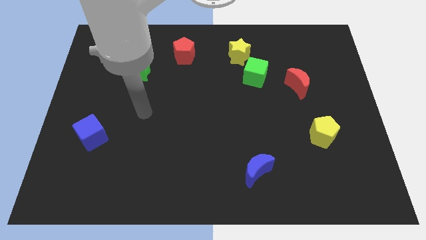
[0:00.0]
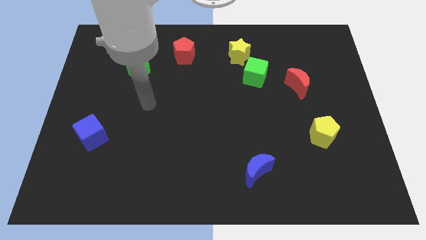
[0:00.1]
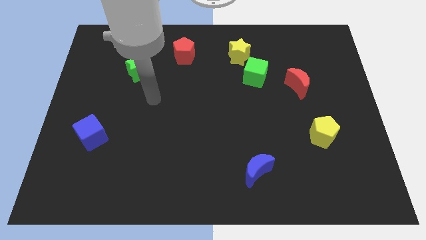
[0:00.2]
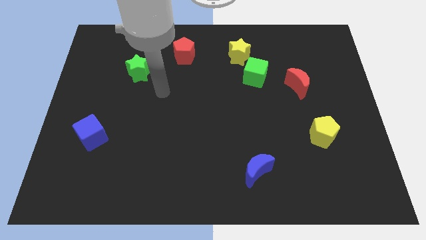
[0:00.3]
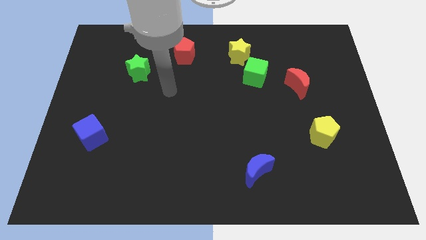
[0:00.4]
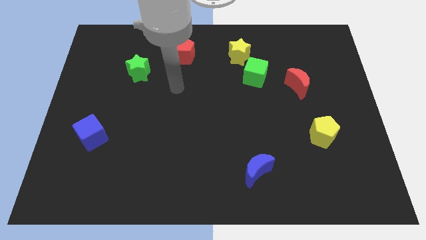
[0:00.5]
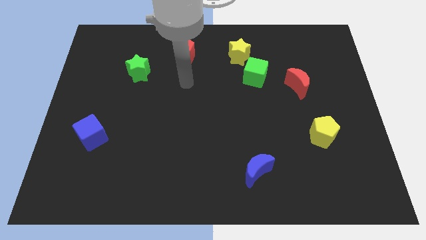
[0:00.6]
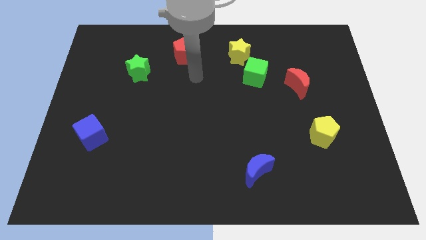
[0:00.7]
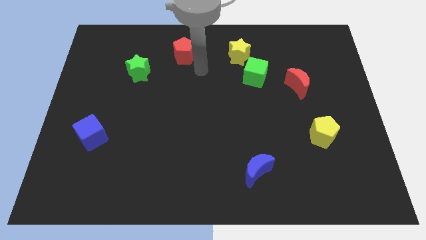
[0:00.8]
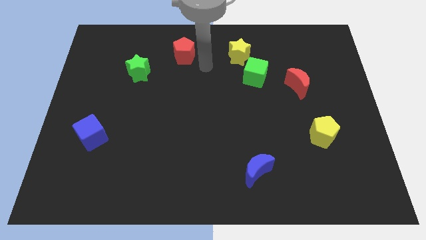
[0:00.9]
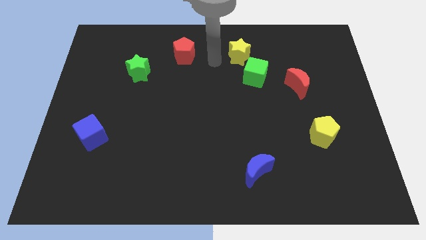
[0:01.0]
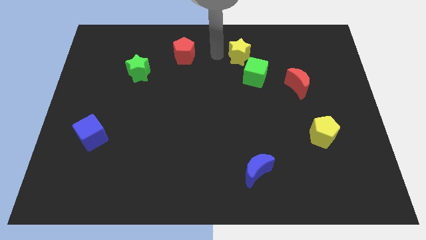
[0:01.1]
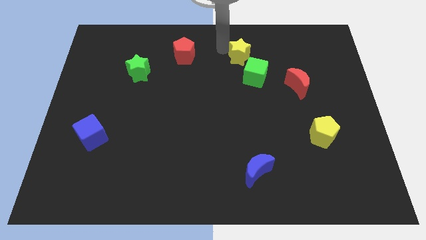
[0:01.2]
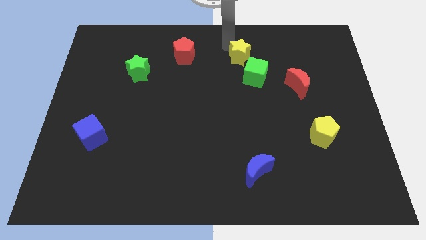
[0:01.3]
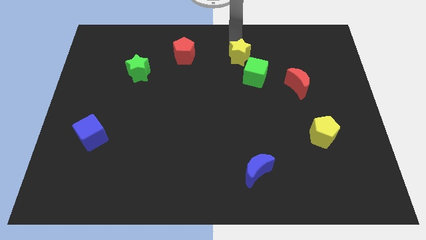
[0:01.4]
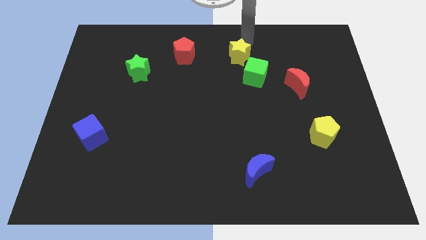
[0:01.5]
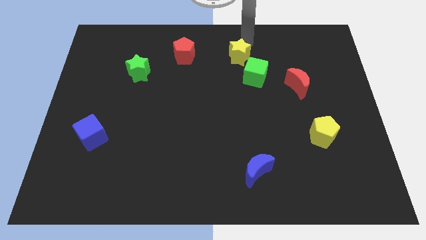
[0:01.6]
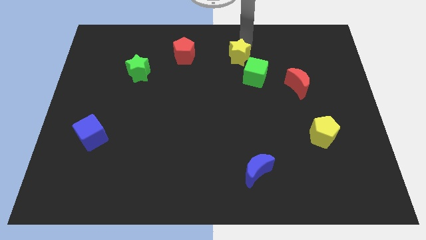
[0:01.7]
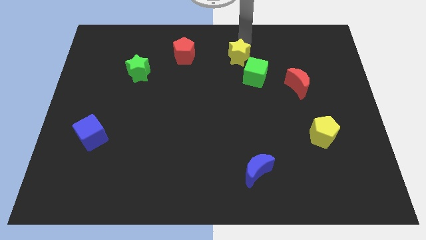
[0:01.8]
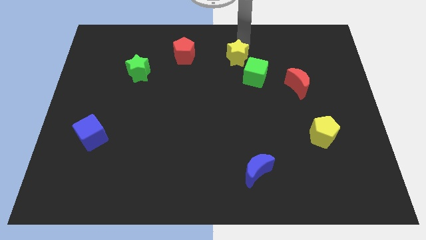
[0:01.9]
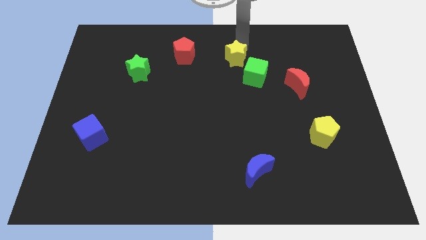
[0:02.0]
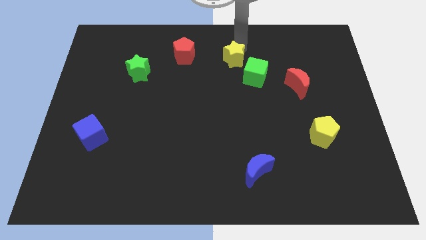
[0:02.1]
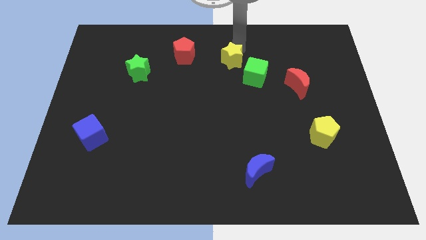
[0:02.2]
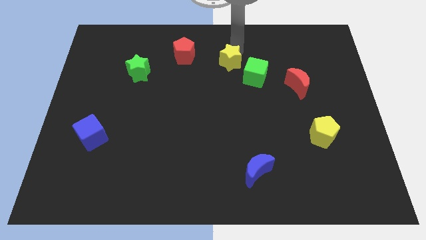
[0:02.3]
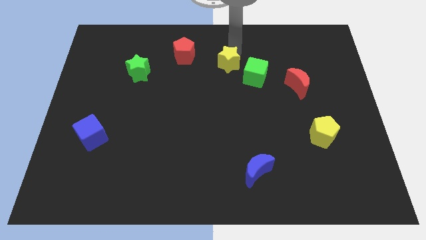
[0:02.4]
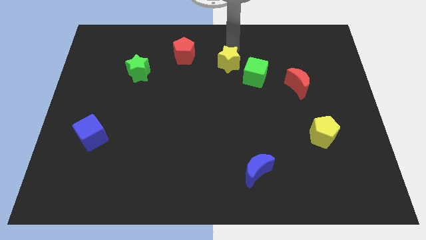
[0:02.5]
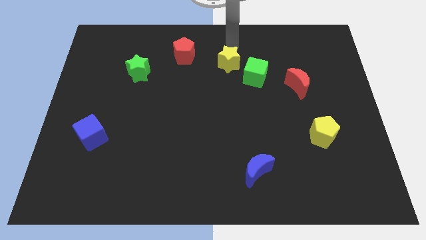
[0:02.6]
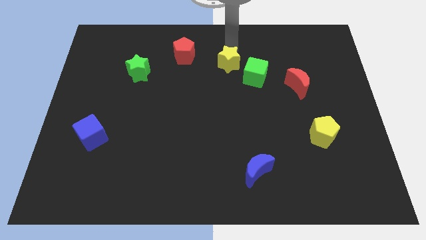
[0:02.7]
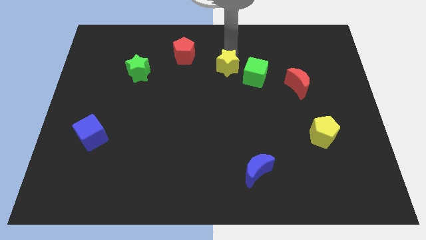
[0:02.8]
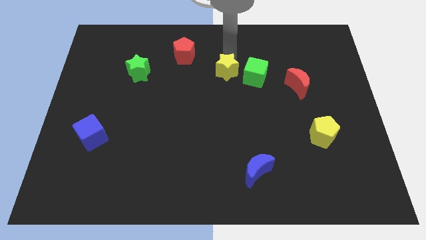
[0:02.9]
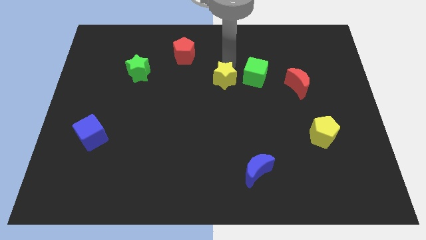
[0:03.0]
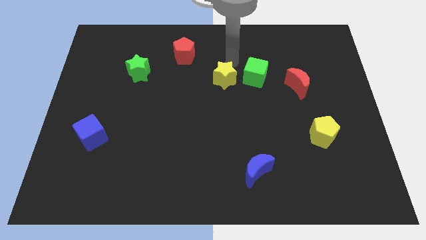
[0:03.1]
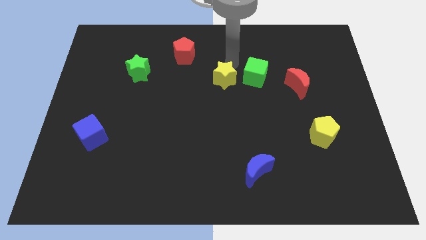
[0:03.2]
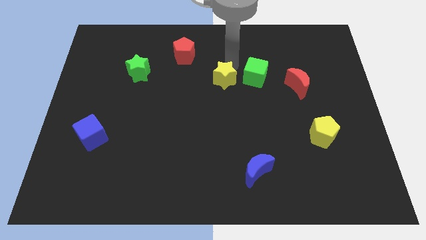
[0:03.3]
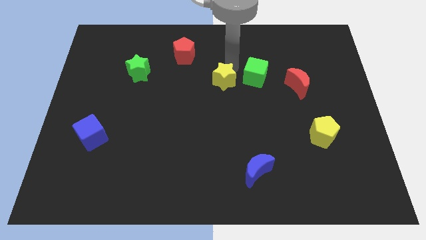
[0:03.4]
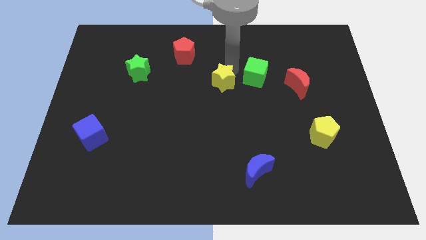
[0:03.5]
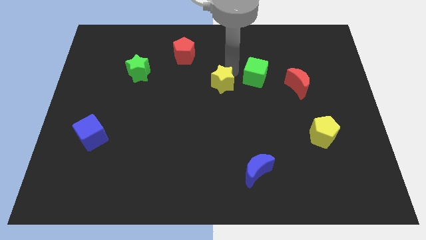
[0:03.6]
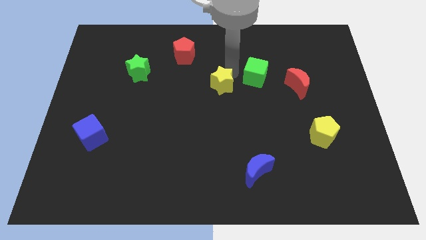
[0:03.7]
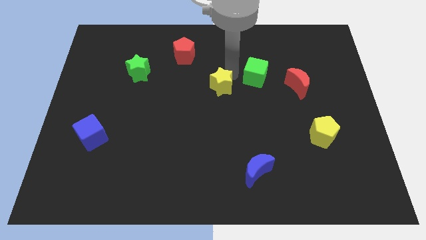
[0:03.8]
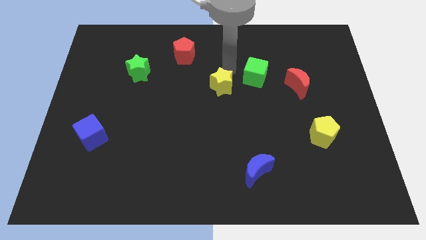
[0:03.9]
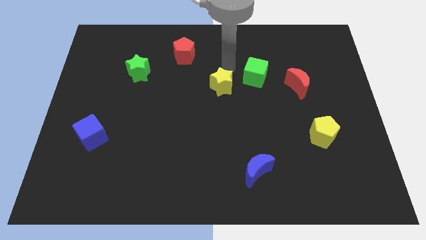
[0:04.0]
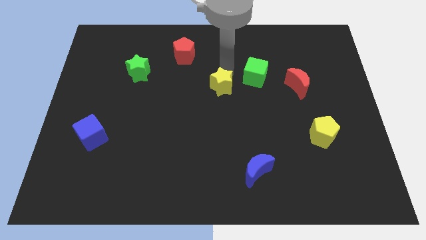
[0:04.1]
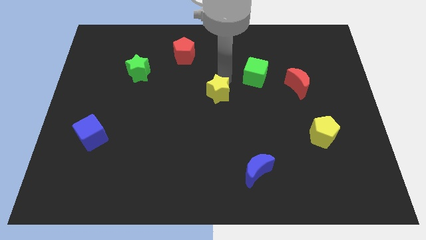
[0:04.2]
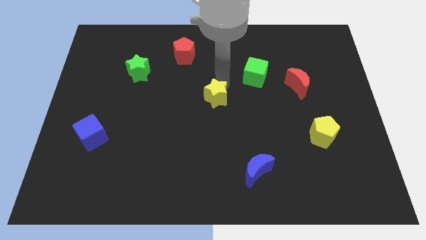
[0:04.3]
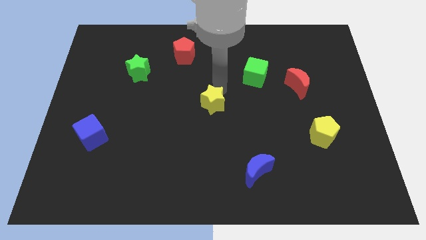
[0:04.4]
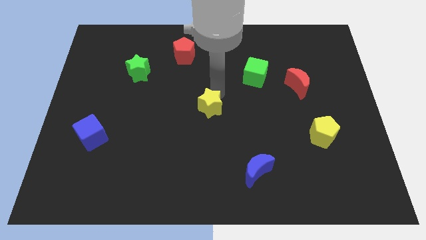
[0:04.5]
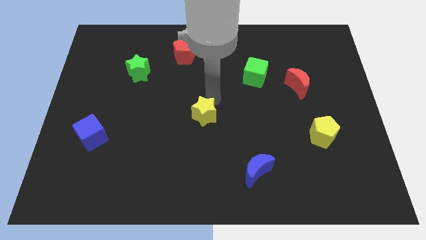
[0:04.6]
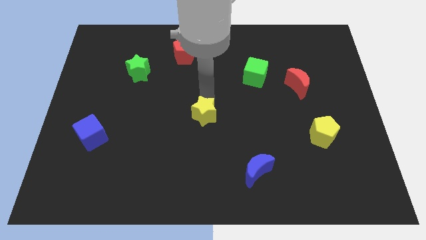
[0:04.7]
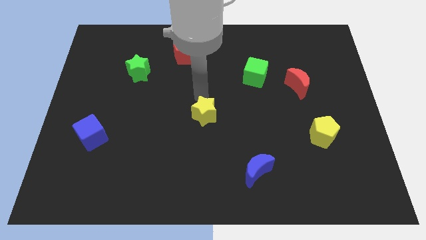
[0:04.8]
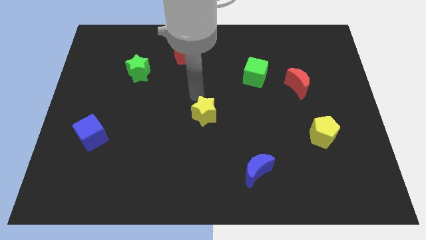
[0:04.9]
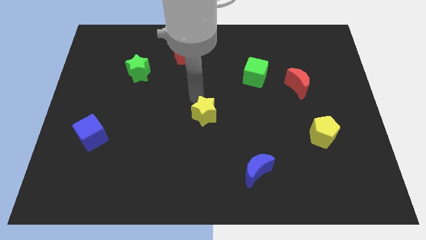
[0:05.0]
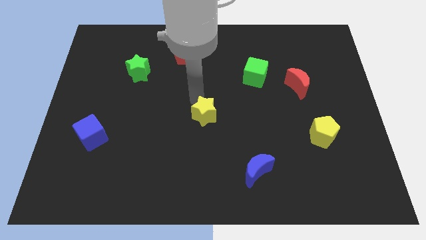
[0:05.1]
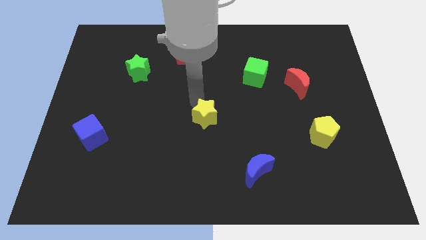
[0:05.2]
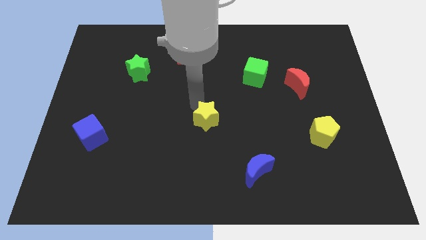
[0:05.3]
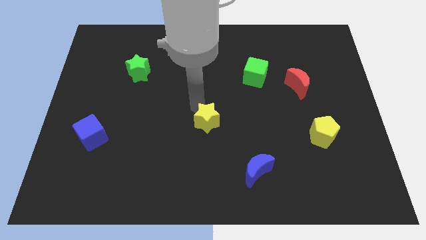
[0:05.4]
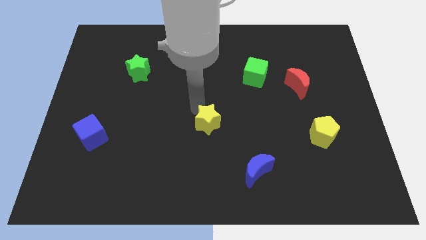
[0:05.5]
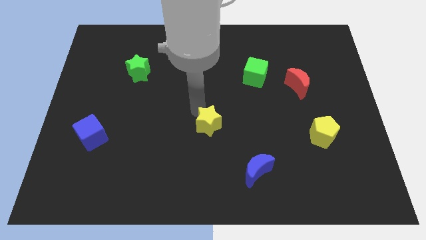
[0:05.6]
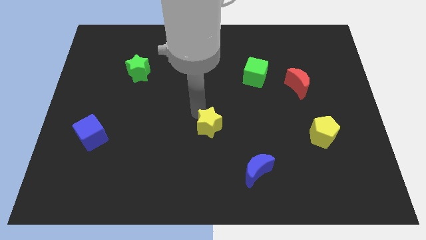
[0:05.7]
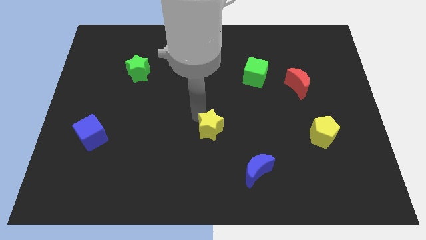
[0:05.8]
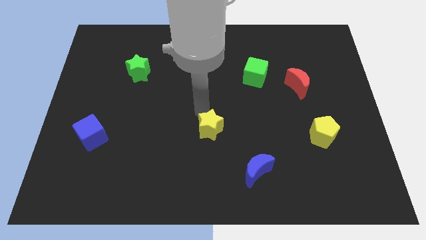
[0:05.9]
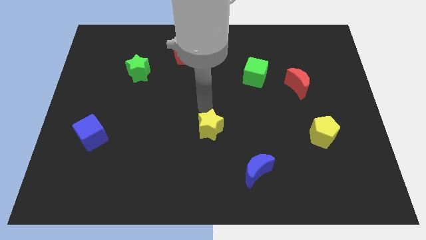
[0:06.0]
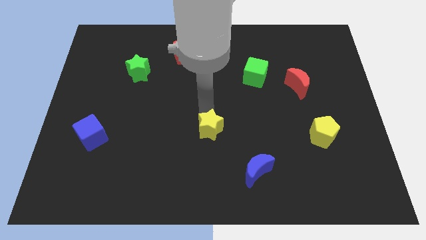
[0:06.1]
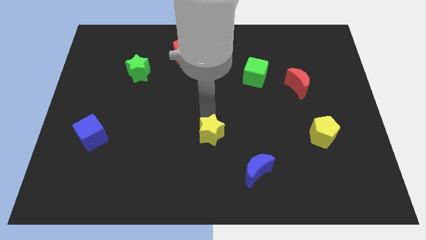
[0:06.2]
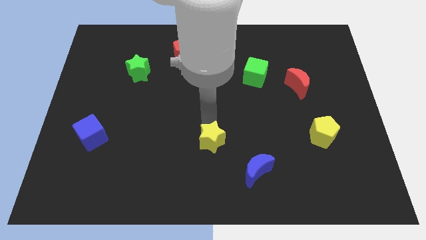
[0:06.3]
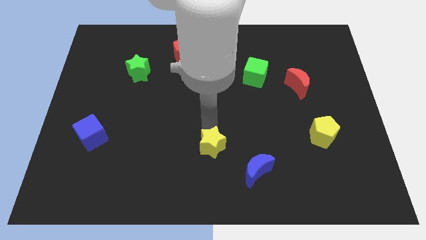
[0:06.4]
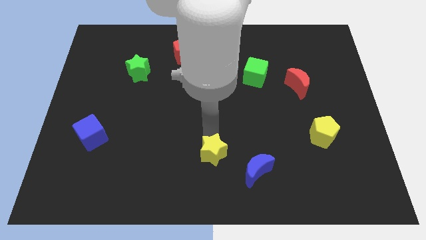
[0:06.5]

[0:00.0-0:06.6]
put the yellow star to the bottom side

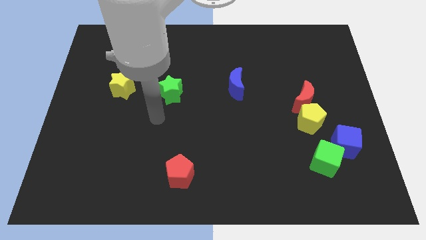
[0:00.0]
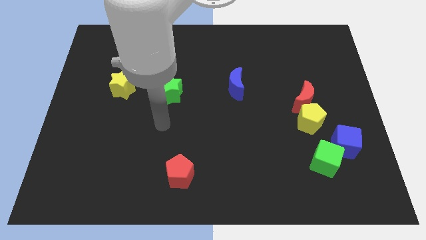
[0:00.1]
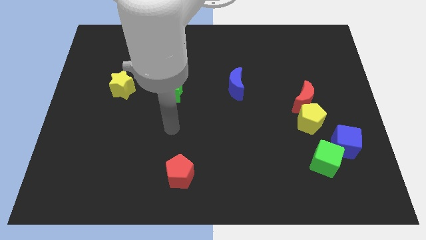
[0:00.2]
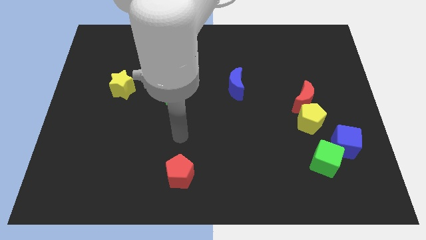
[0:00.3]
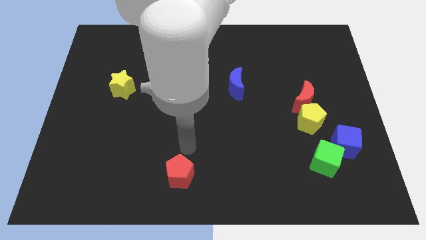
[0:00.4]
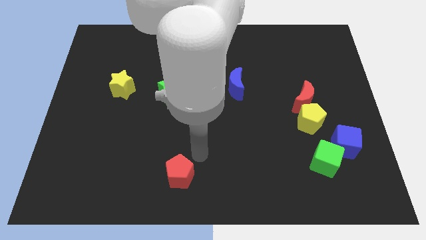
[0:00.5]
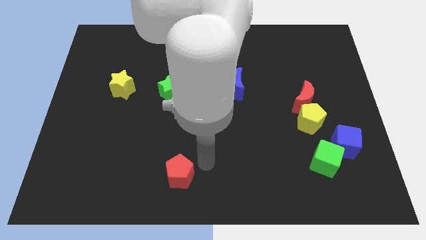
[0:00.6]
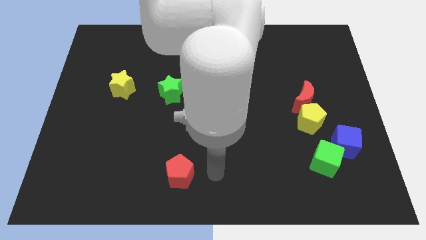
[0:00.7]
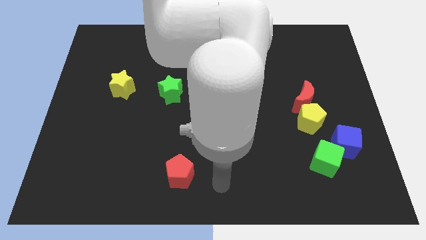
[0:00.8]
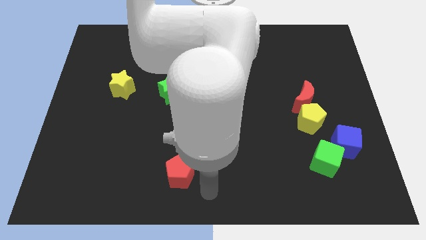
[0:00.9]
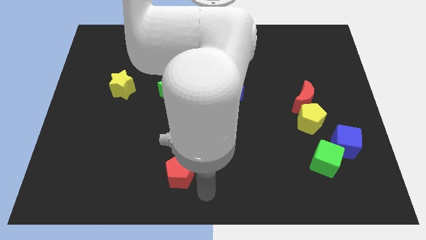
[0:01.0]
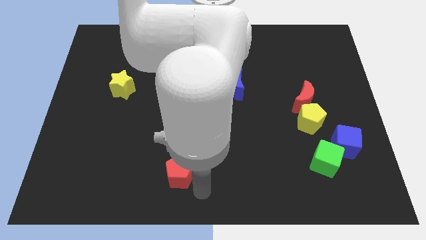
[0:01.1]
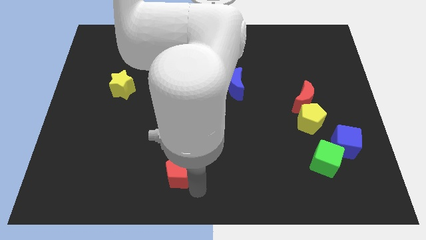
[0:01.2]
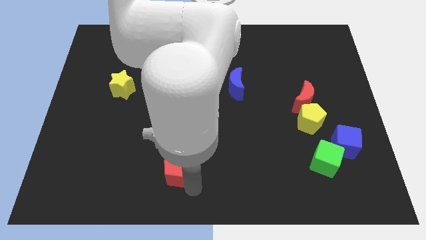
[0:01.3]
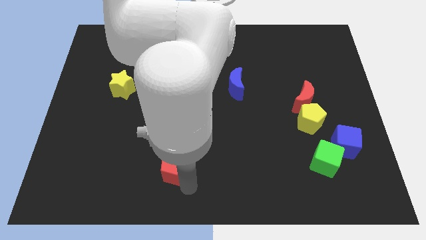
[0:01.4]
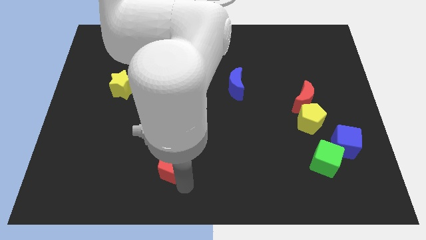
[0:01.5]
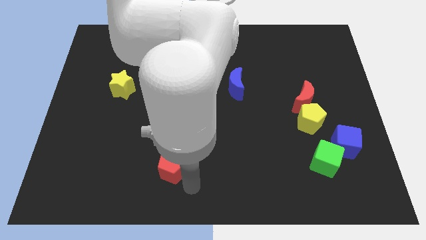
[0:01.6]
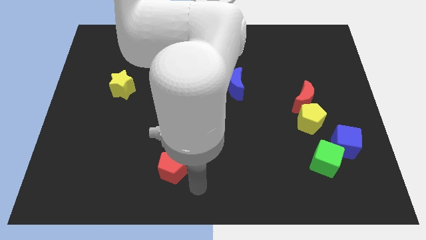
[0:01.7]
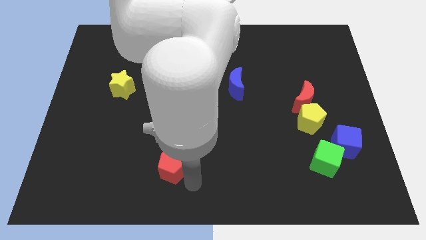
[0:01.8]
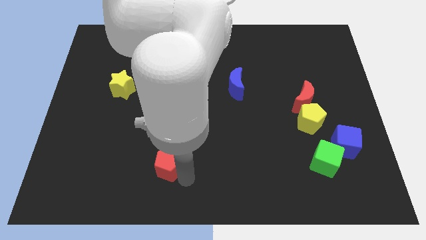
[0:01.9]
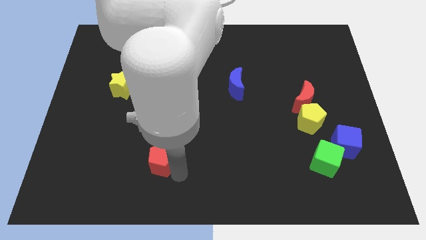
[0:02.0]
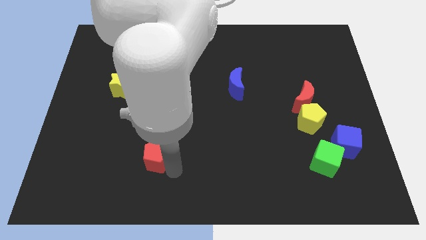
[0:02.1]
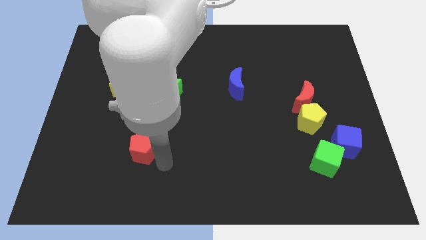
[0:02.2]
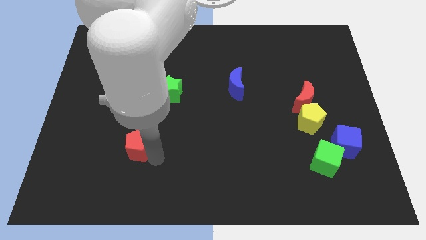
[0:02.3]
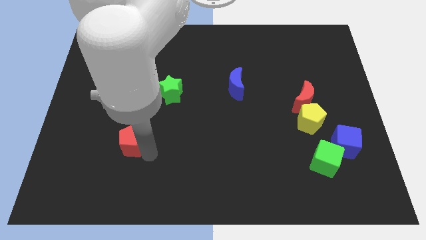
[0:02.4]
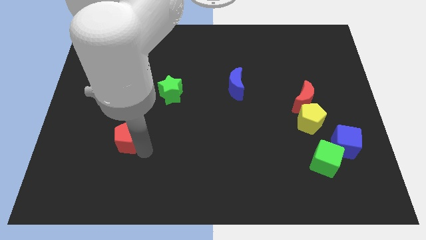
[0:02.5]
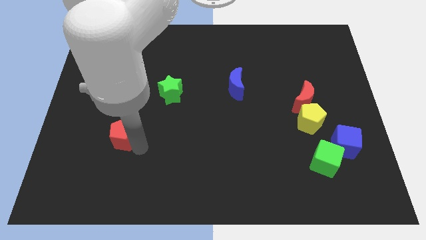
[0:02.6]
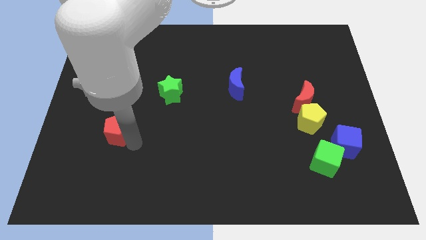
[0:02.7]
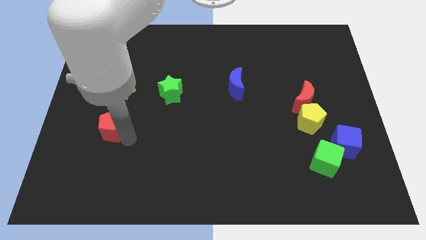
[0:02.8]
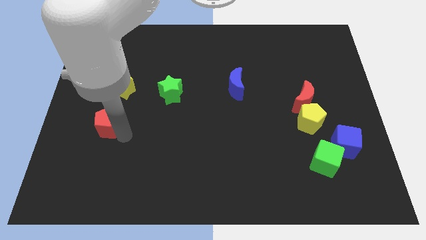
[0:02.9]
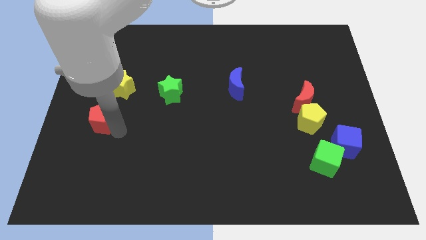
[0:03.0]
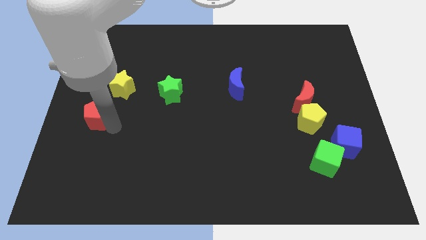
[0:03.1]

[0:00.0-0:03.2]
move the red pentagon to the left side
